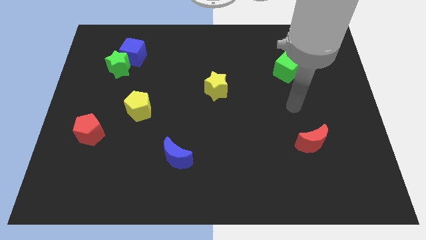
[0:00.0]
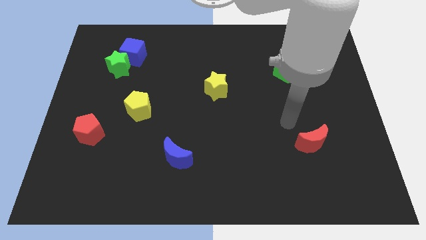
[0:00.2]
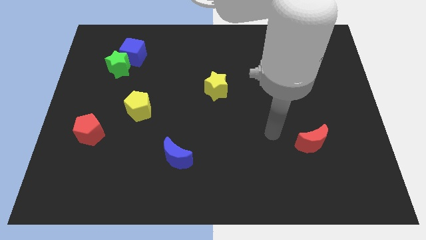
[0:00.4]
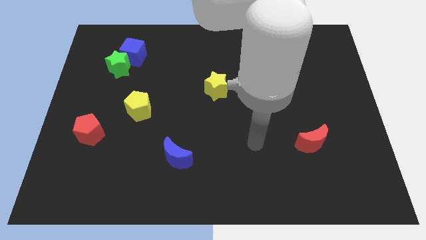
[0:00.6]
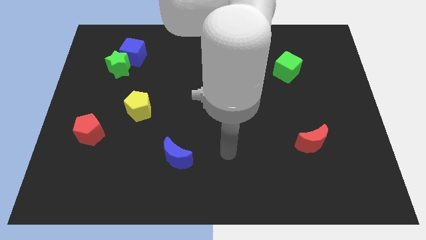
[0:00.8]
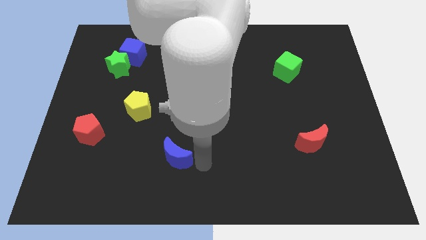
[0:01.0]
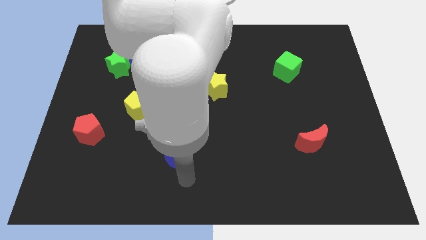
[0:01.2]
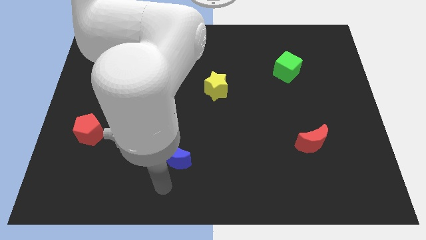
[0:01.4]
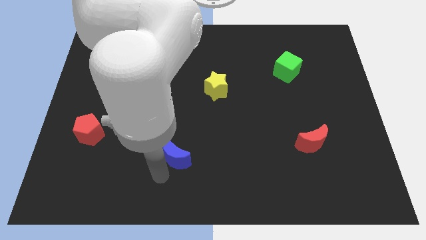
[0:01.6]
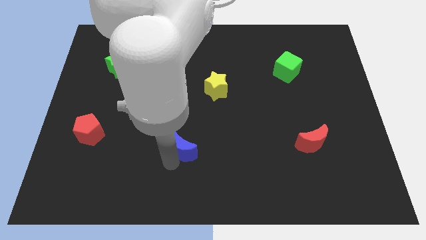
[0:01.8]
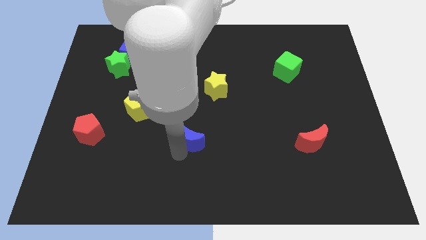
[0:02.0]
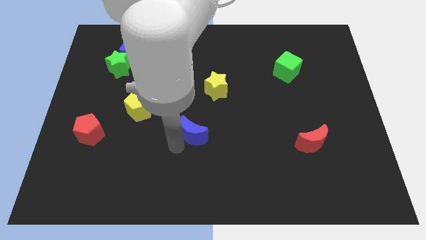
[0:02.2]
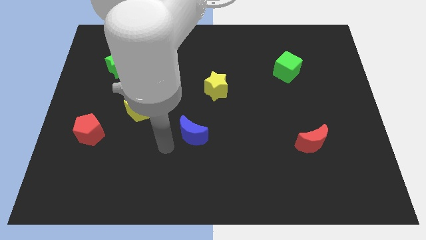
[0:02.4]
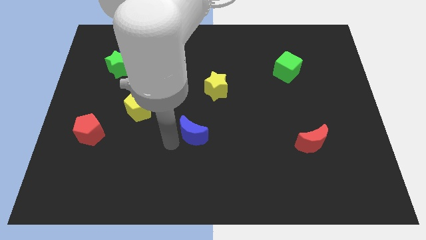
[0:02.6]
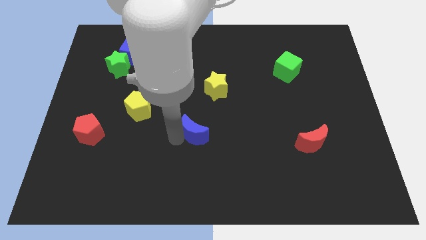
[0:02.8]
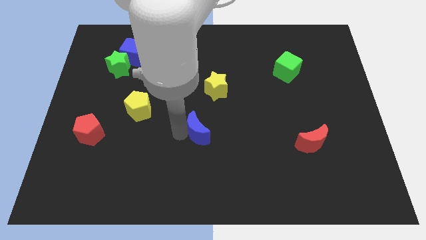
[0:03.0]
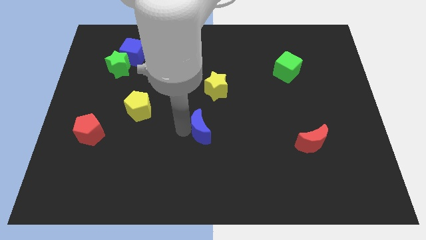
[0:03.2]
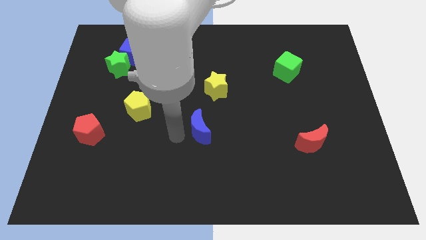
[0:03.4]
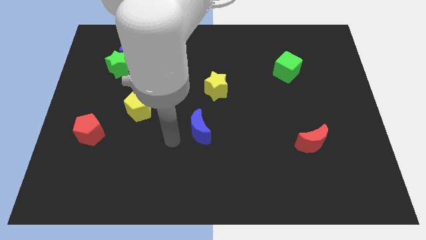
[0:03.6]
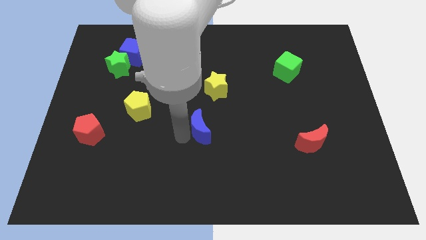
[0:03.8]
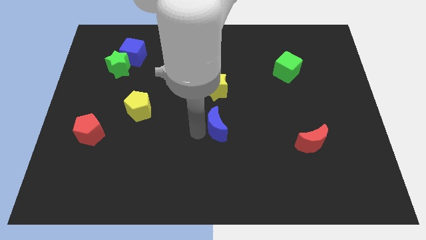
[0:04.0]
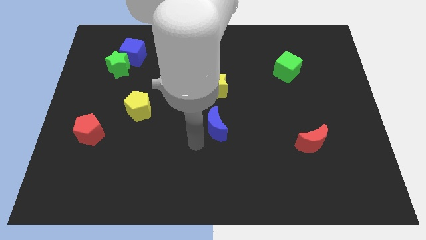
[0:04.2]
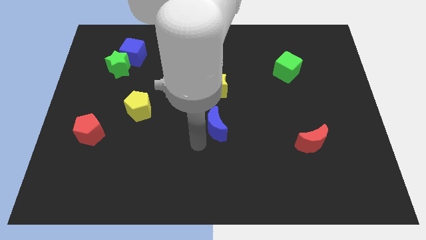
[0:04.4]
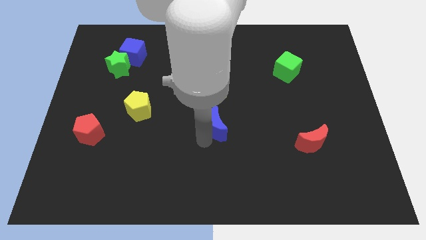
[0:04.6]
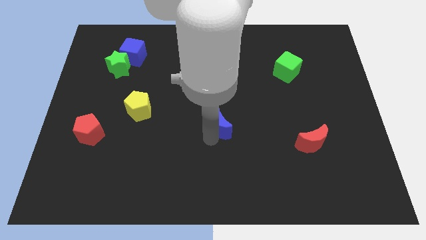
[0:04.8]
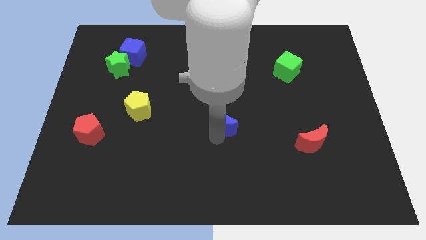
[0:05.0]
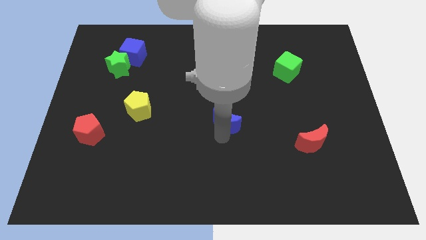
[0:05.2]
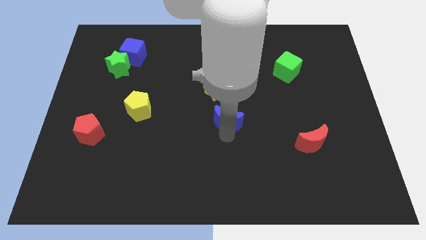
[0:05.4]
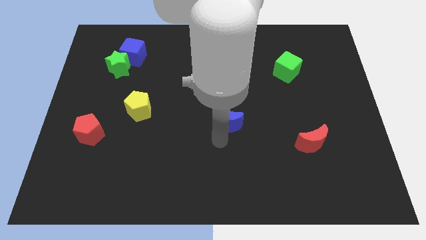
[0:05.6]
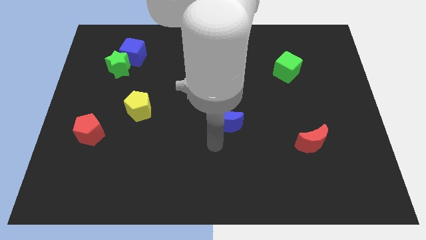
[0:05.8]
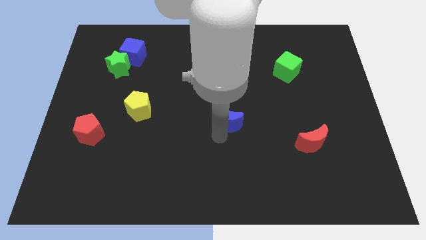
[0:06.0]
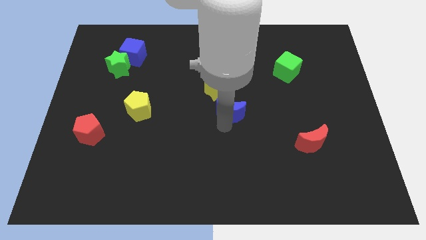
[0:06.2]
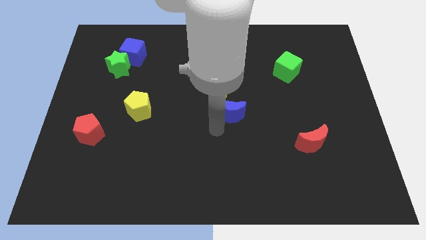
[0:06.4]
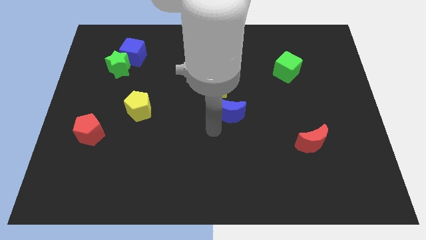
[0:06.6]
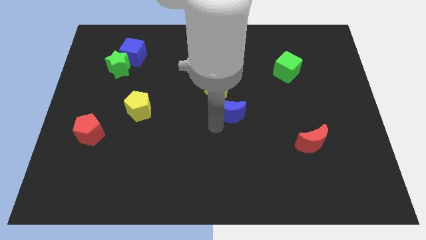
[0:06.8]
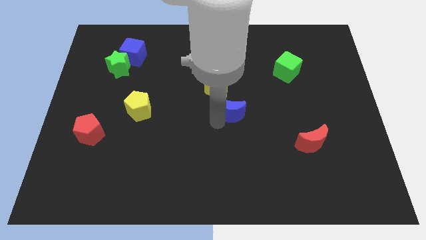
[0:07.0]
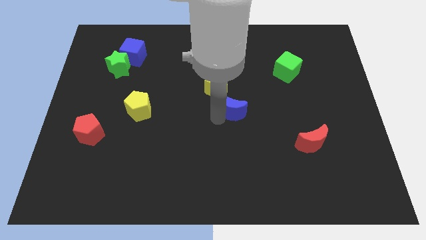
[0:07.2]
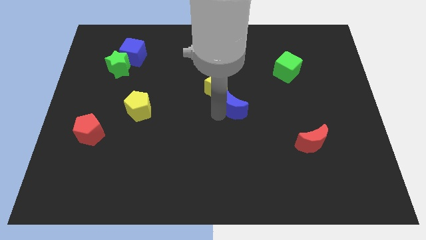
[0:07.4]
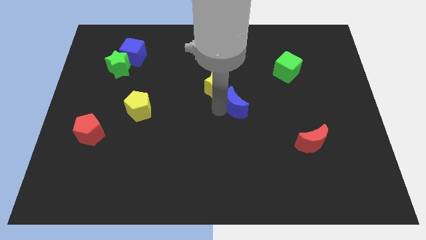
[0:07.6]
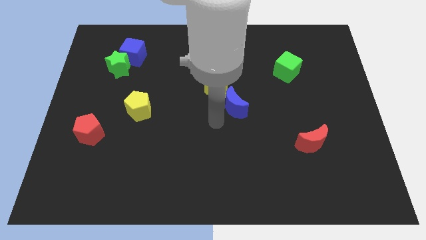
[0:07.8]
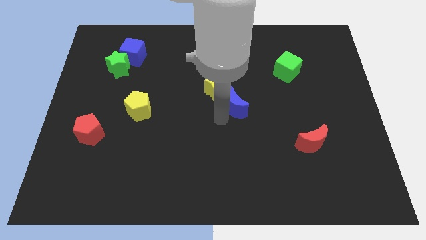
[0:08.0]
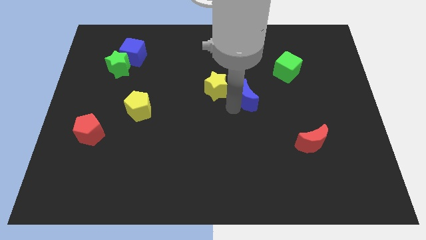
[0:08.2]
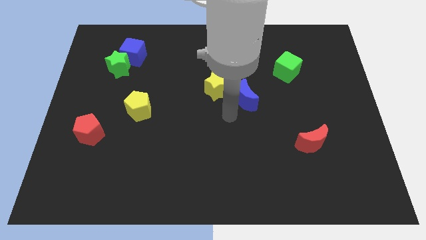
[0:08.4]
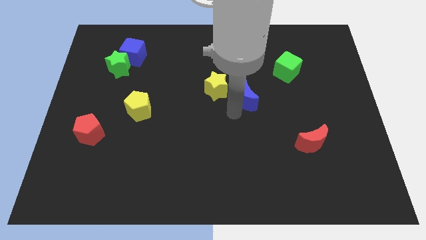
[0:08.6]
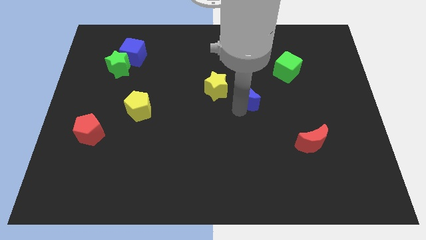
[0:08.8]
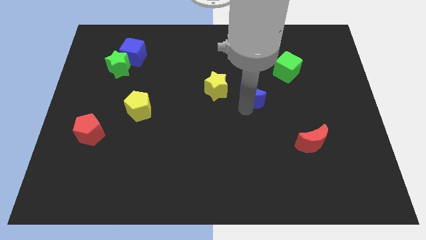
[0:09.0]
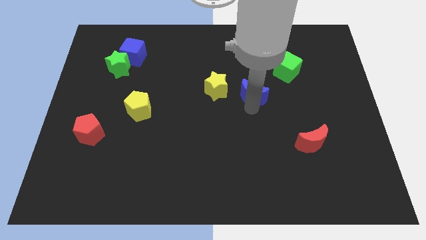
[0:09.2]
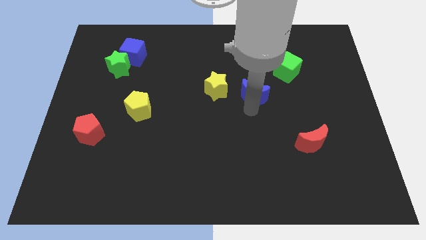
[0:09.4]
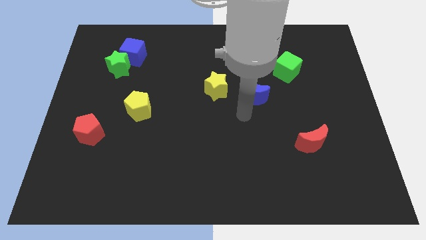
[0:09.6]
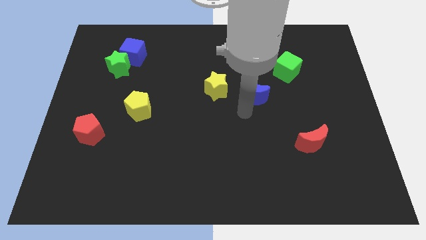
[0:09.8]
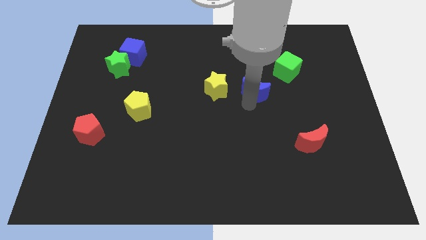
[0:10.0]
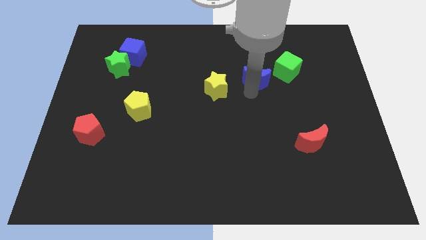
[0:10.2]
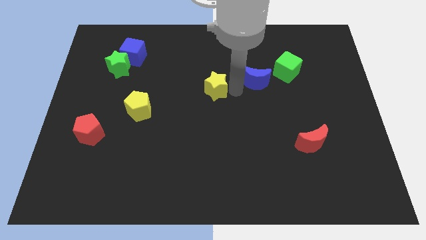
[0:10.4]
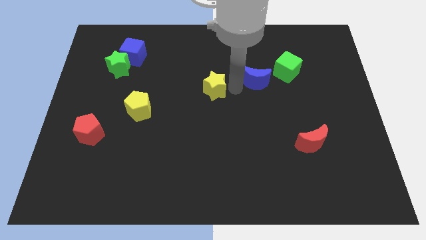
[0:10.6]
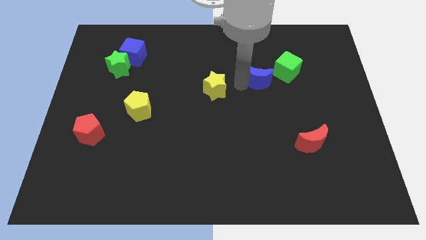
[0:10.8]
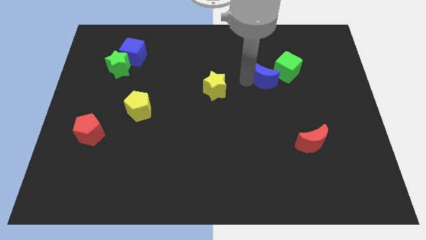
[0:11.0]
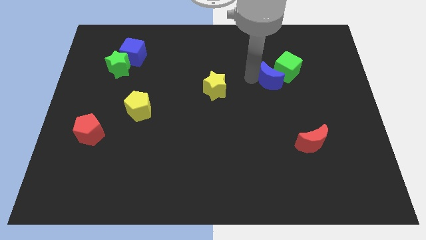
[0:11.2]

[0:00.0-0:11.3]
put the blue moon next to the green cube
